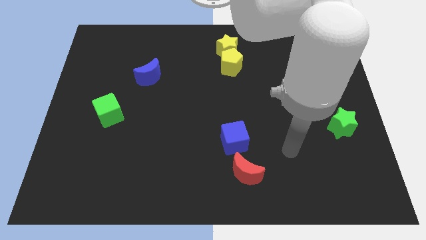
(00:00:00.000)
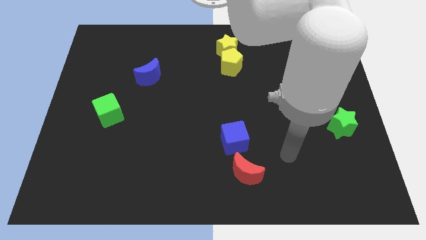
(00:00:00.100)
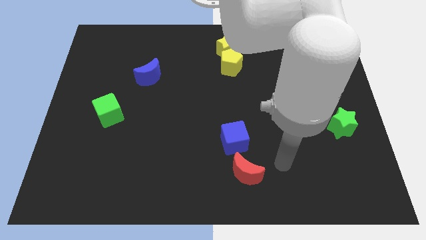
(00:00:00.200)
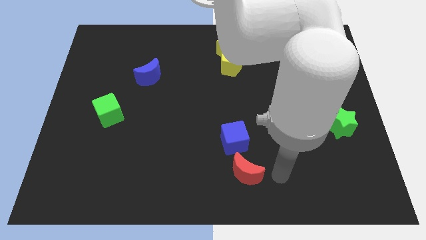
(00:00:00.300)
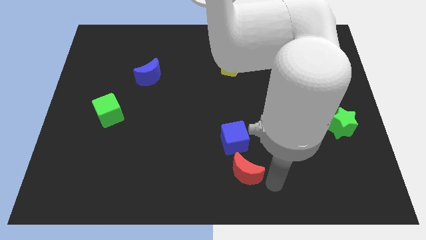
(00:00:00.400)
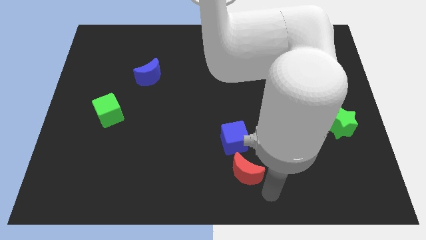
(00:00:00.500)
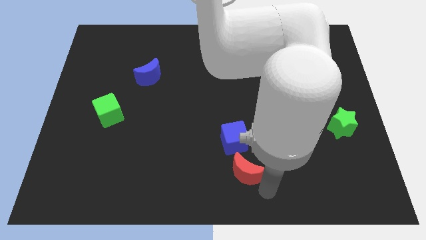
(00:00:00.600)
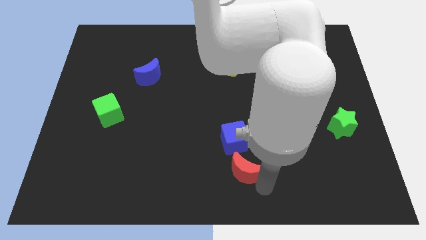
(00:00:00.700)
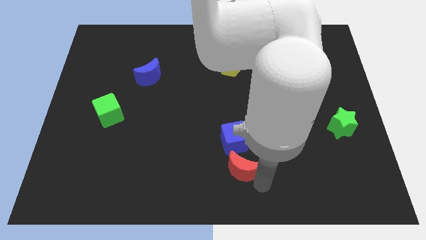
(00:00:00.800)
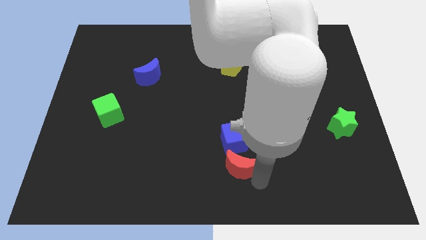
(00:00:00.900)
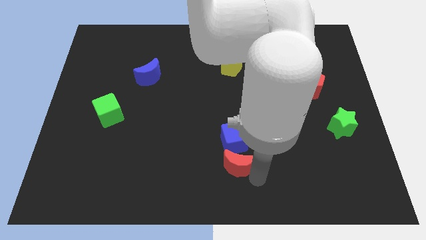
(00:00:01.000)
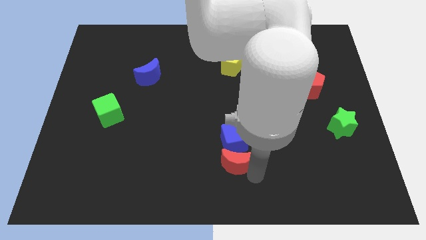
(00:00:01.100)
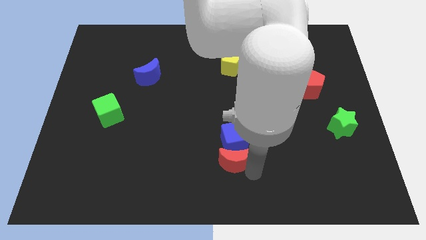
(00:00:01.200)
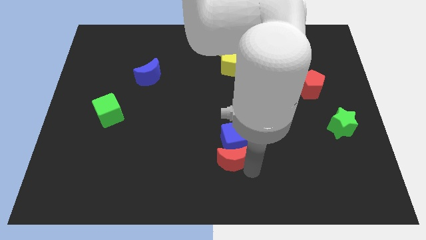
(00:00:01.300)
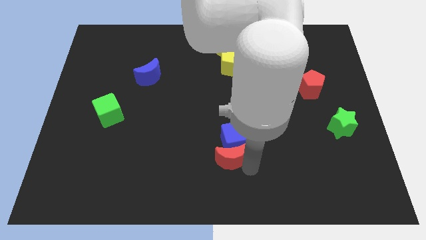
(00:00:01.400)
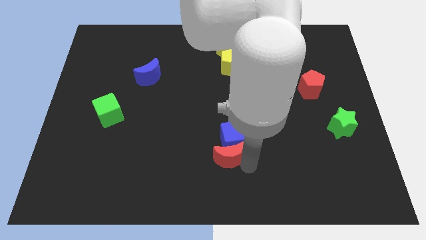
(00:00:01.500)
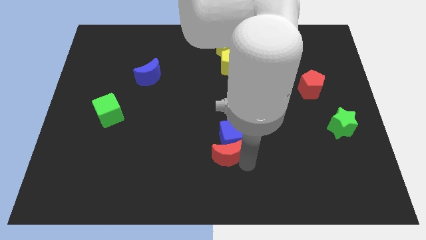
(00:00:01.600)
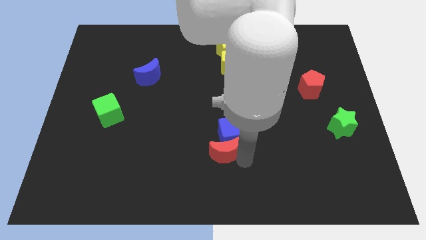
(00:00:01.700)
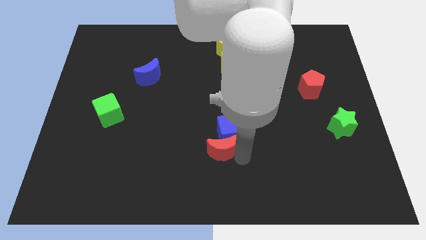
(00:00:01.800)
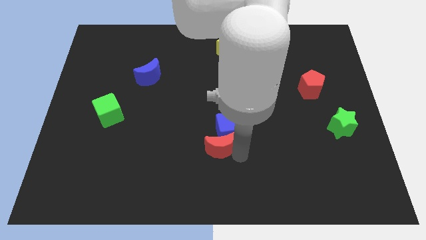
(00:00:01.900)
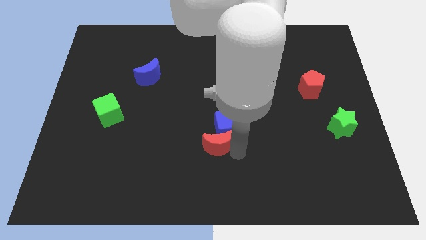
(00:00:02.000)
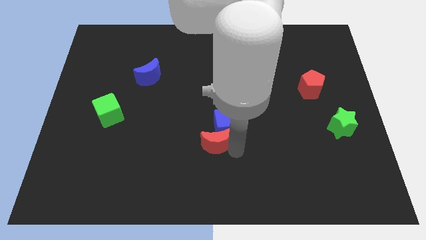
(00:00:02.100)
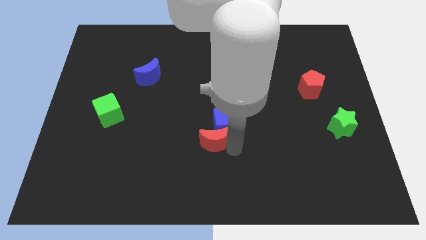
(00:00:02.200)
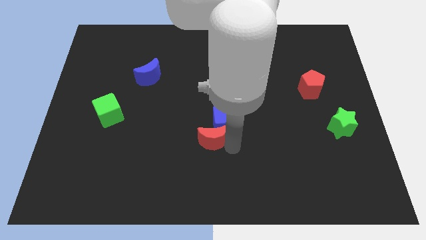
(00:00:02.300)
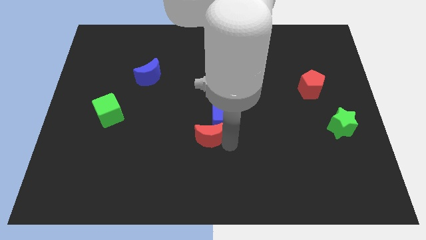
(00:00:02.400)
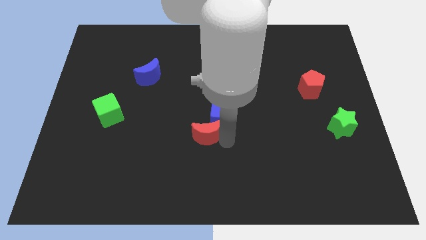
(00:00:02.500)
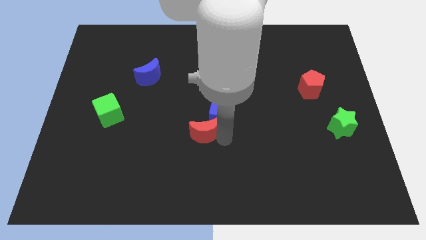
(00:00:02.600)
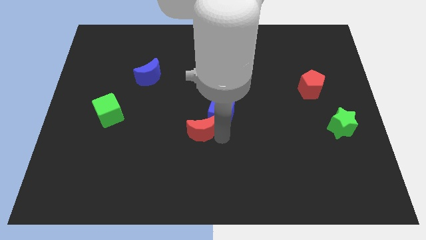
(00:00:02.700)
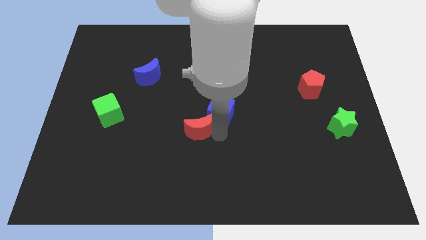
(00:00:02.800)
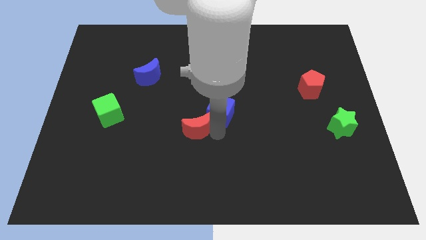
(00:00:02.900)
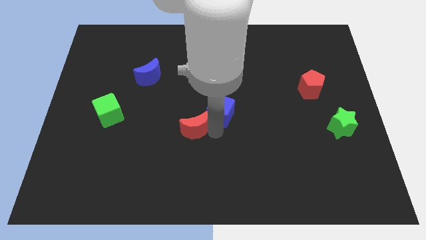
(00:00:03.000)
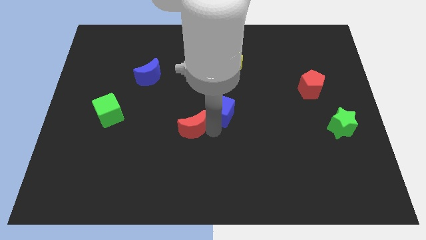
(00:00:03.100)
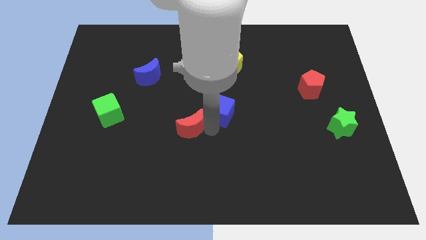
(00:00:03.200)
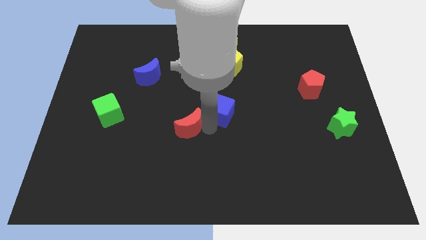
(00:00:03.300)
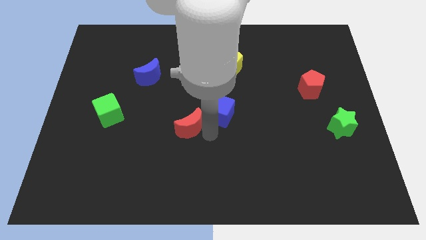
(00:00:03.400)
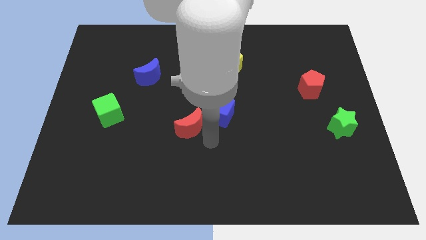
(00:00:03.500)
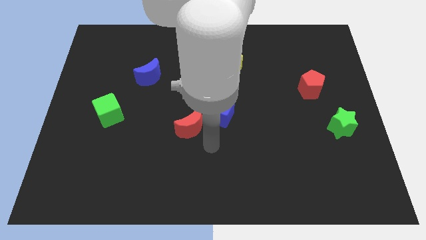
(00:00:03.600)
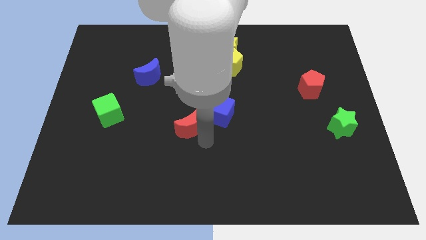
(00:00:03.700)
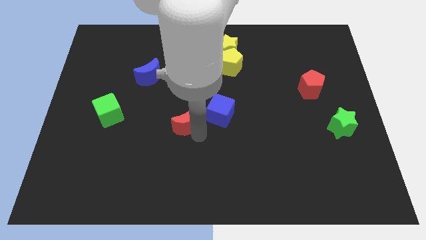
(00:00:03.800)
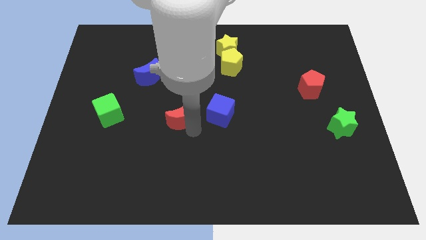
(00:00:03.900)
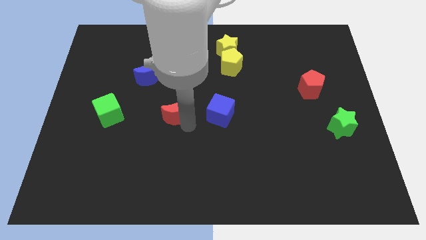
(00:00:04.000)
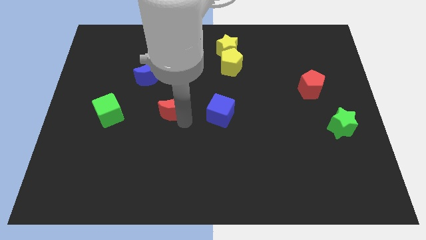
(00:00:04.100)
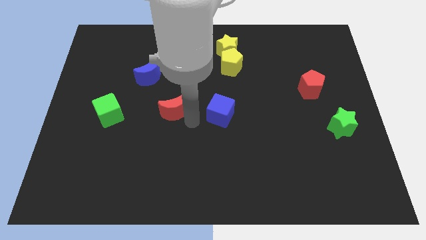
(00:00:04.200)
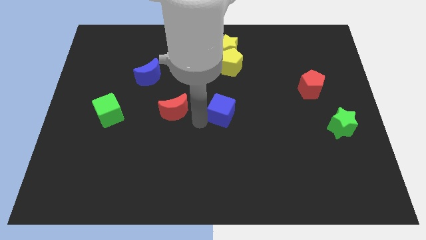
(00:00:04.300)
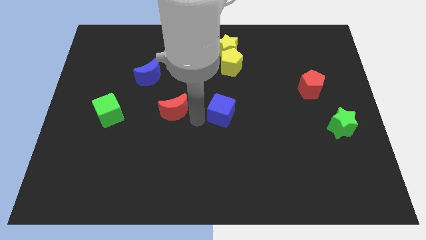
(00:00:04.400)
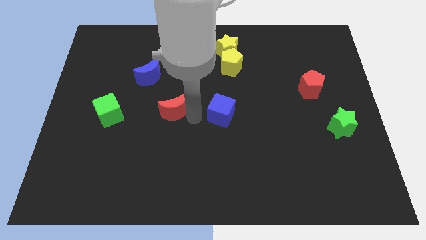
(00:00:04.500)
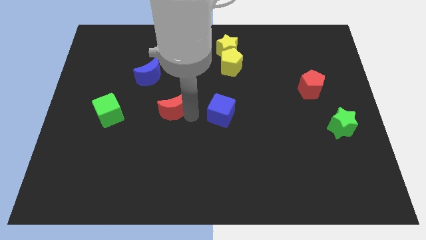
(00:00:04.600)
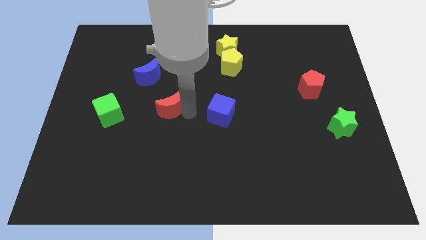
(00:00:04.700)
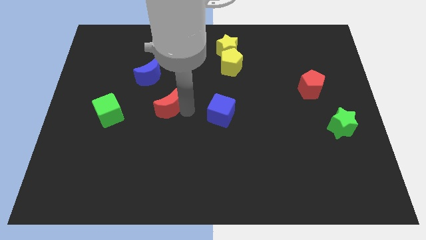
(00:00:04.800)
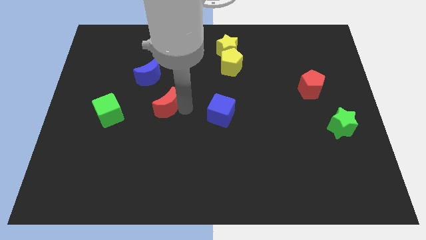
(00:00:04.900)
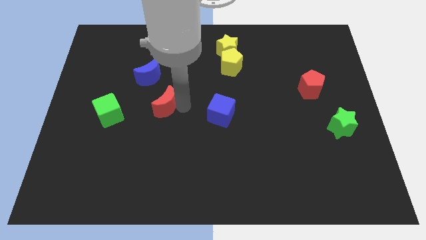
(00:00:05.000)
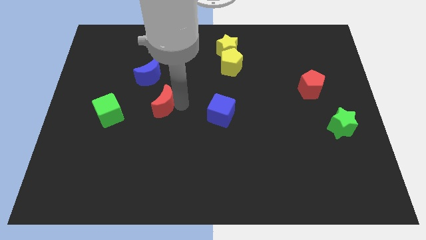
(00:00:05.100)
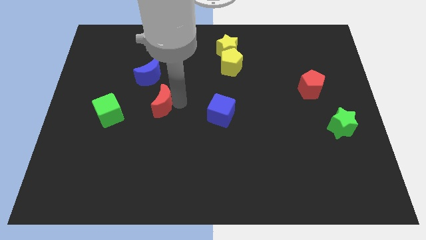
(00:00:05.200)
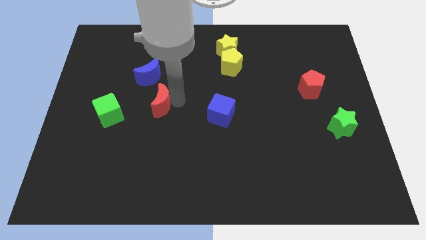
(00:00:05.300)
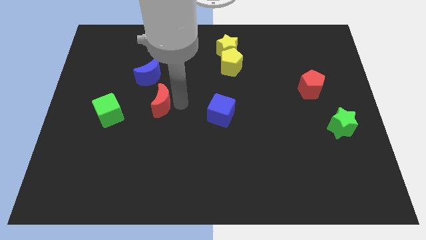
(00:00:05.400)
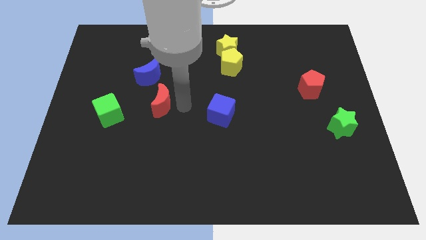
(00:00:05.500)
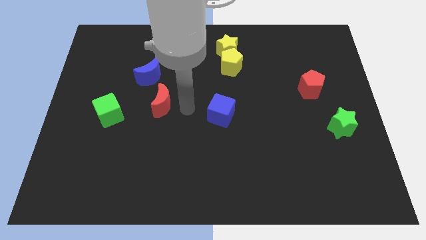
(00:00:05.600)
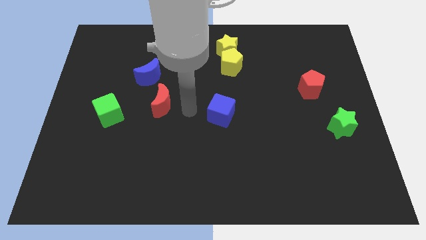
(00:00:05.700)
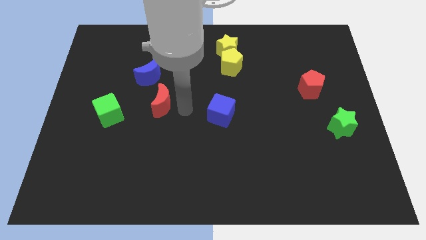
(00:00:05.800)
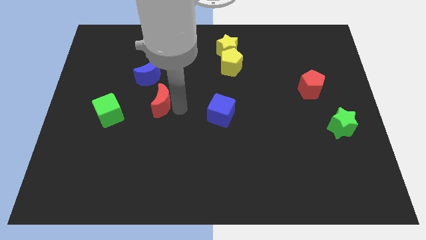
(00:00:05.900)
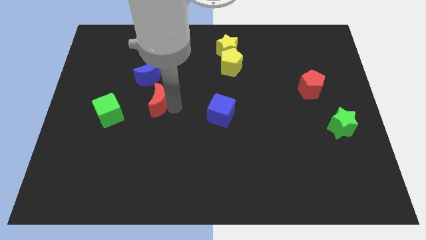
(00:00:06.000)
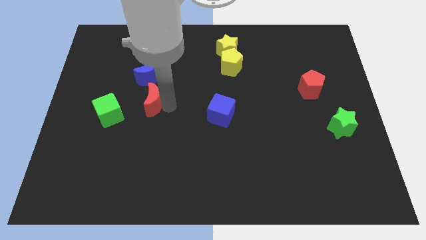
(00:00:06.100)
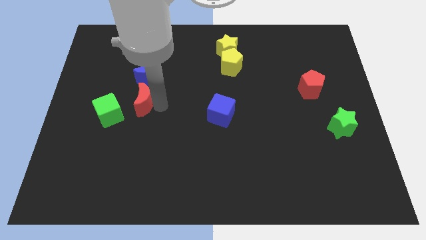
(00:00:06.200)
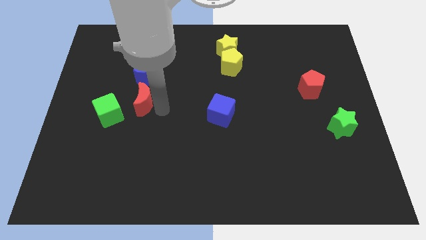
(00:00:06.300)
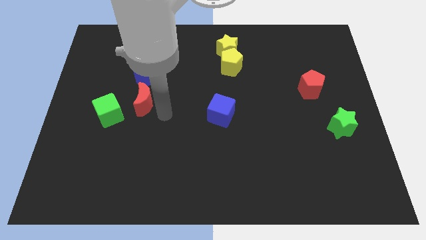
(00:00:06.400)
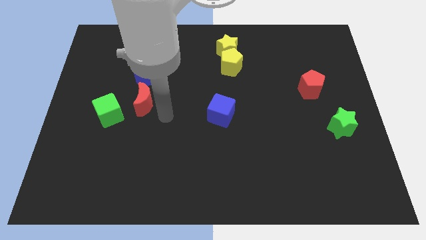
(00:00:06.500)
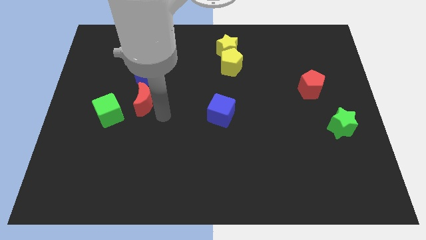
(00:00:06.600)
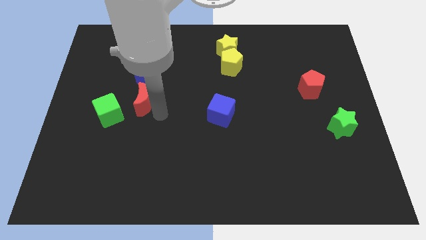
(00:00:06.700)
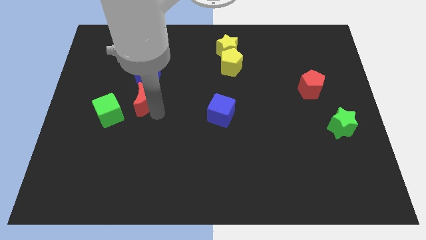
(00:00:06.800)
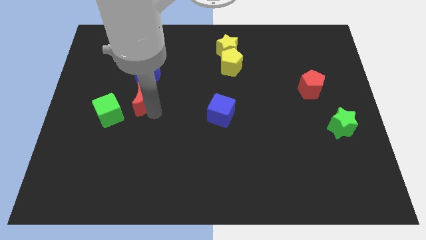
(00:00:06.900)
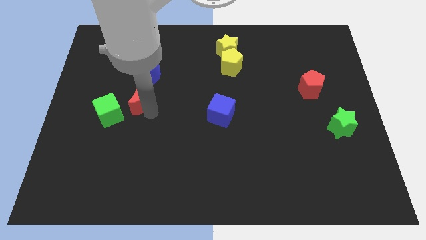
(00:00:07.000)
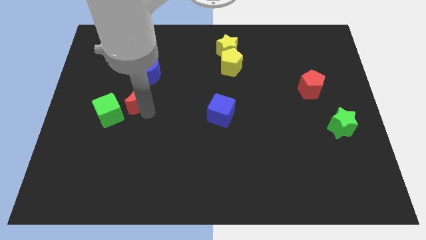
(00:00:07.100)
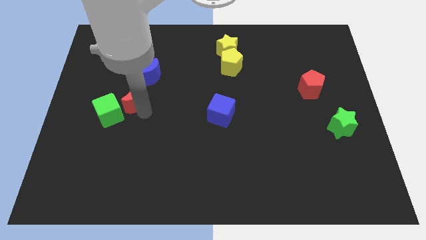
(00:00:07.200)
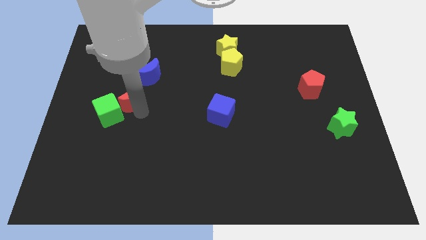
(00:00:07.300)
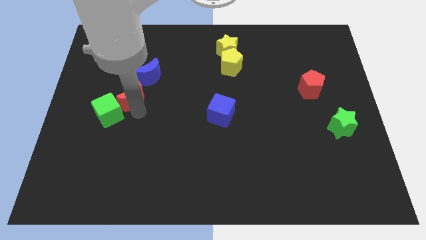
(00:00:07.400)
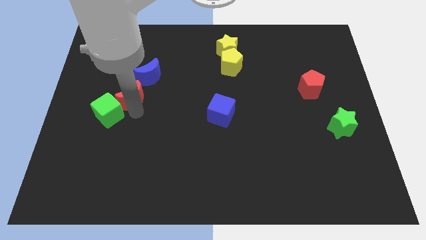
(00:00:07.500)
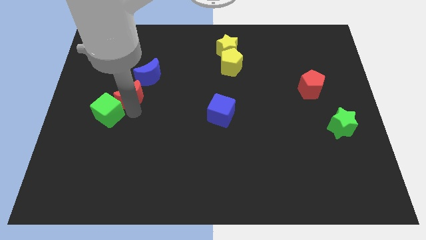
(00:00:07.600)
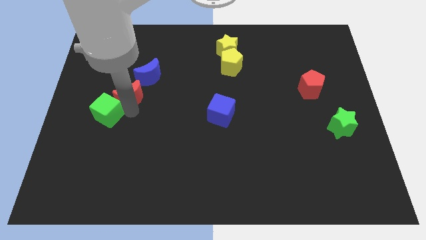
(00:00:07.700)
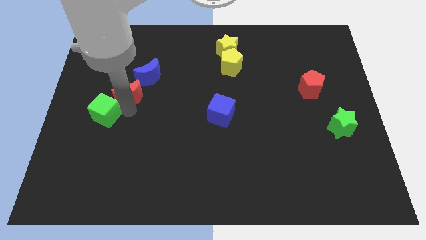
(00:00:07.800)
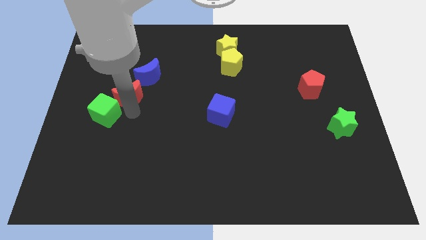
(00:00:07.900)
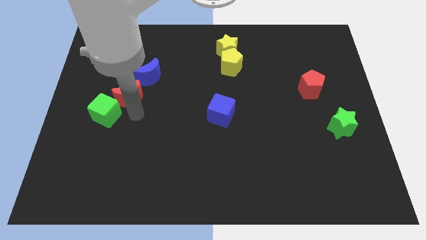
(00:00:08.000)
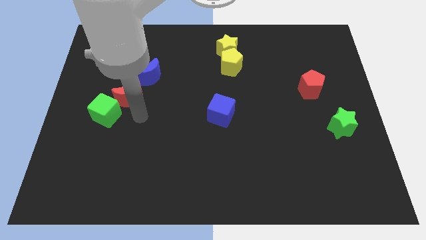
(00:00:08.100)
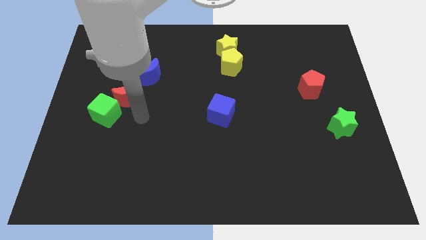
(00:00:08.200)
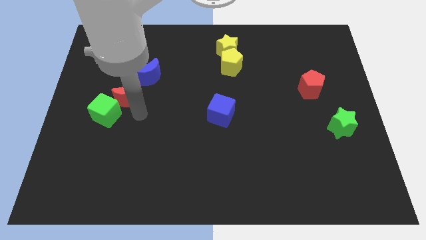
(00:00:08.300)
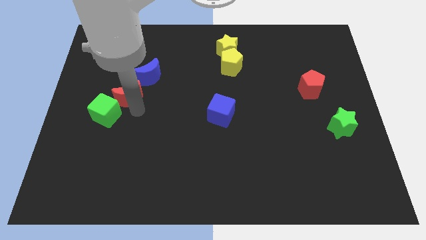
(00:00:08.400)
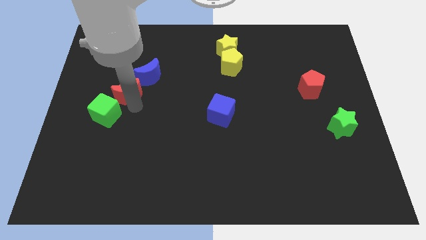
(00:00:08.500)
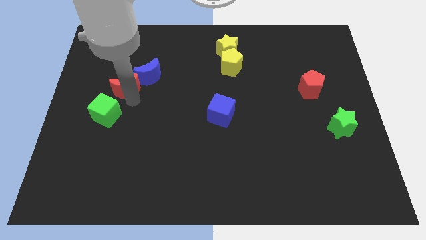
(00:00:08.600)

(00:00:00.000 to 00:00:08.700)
move the red moon to the left of the blue moon
